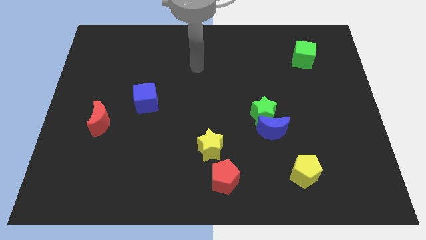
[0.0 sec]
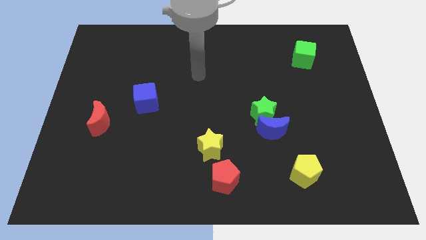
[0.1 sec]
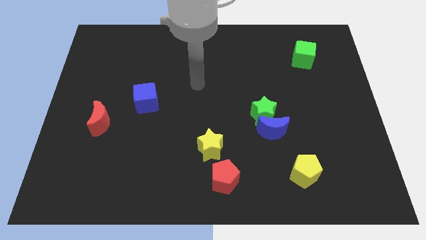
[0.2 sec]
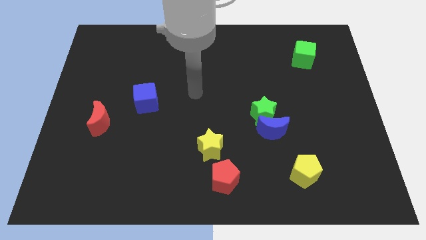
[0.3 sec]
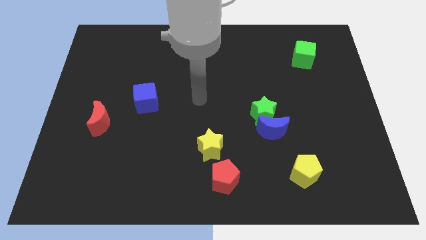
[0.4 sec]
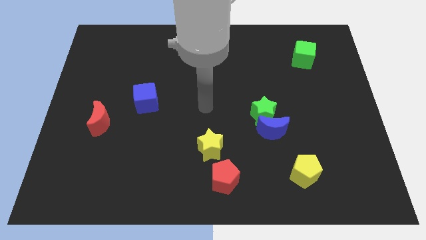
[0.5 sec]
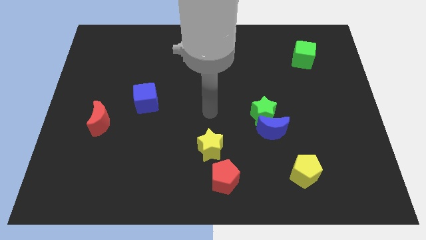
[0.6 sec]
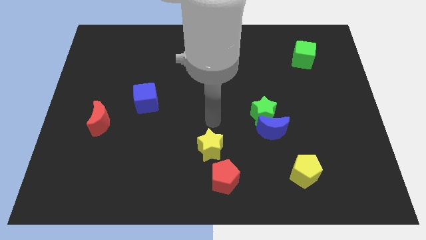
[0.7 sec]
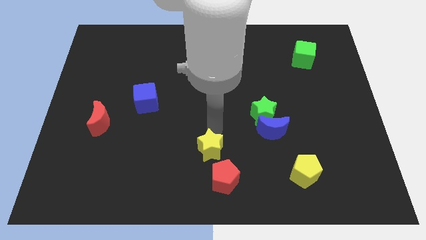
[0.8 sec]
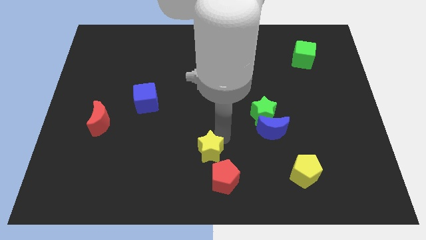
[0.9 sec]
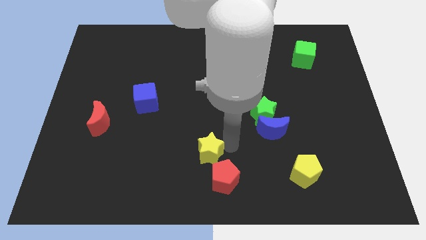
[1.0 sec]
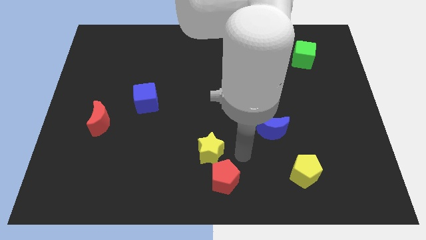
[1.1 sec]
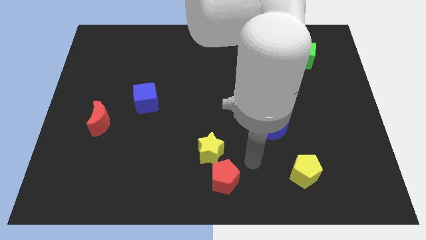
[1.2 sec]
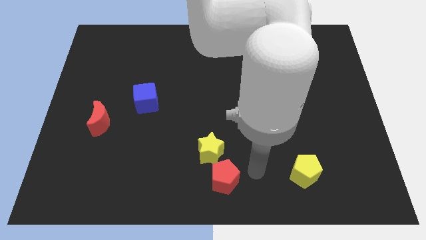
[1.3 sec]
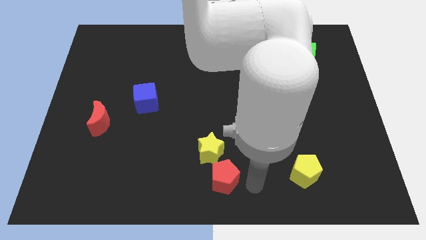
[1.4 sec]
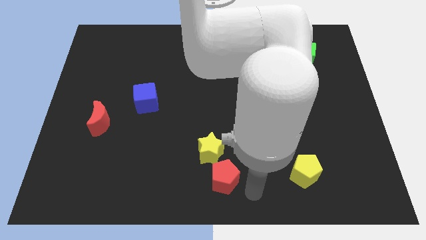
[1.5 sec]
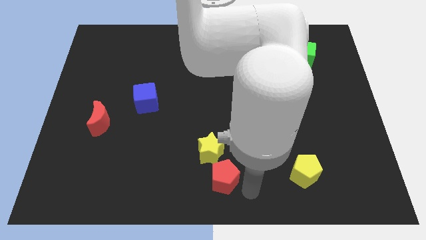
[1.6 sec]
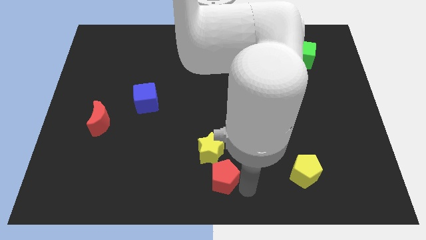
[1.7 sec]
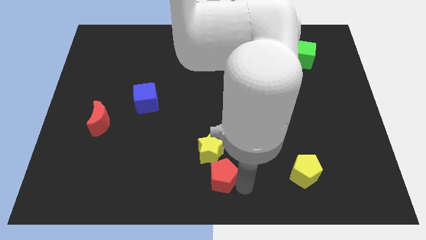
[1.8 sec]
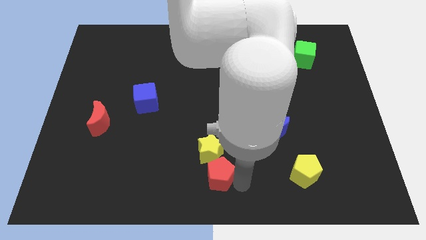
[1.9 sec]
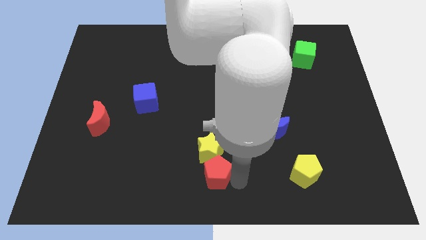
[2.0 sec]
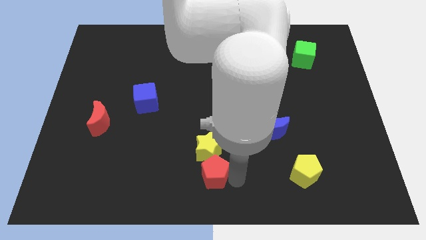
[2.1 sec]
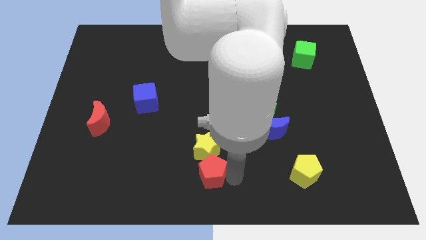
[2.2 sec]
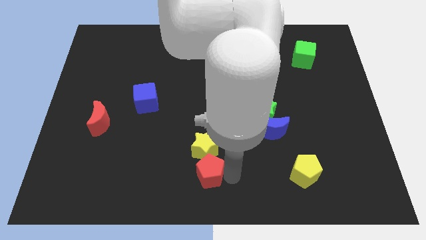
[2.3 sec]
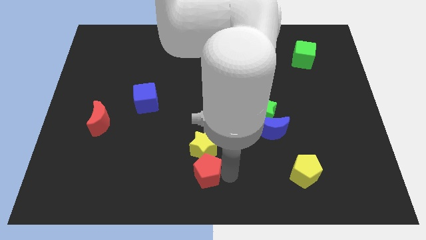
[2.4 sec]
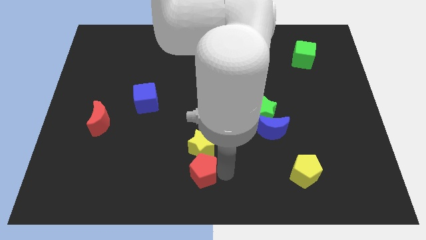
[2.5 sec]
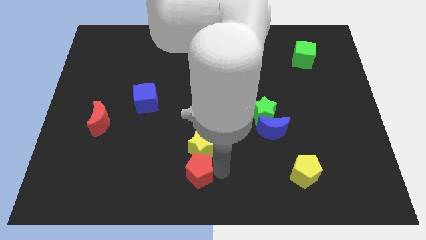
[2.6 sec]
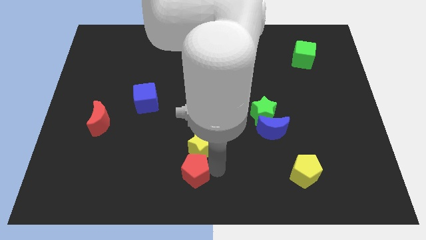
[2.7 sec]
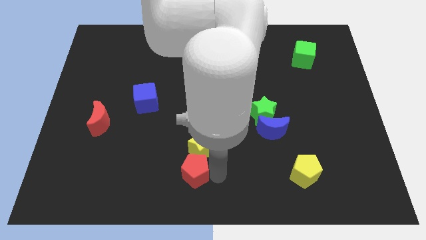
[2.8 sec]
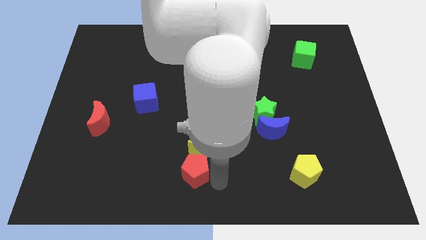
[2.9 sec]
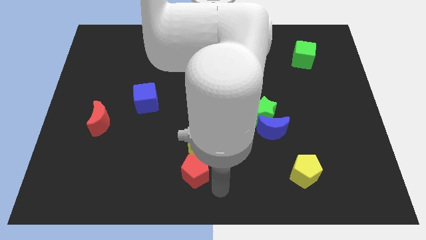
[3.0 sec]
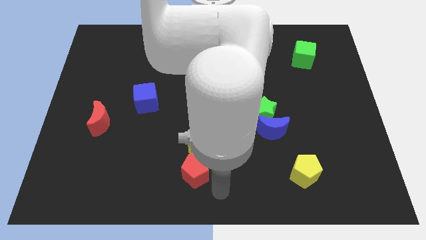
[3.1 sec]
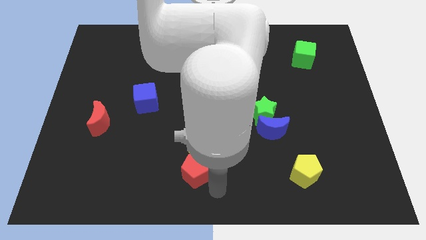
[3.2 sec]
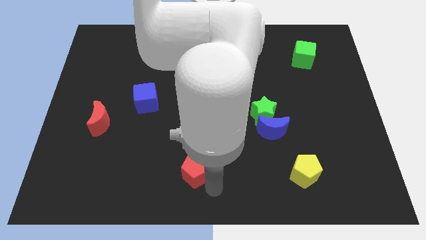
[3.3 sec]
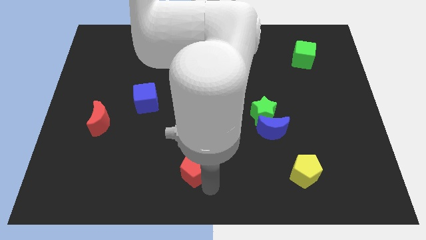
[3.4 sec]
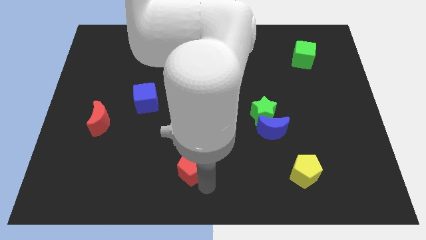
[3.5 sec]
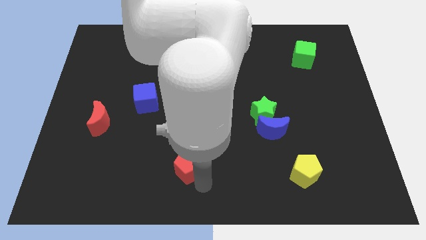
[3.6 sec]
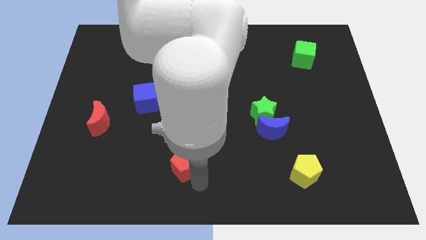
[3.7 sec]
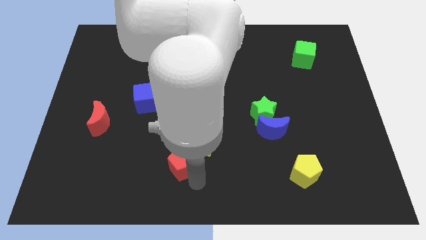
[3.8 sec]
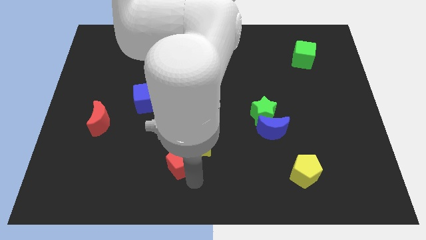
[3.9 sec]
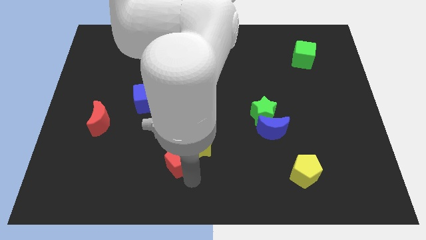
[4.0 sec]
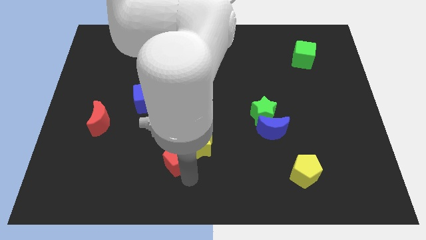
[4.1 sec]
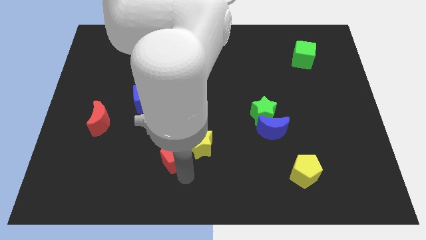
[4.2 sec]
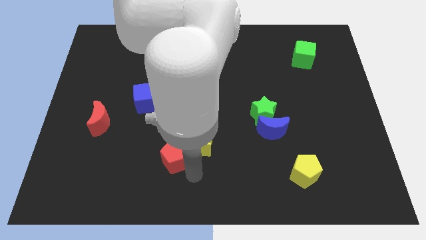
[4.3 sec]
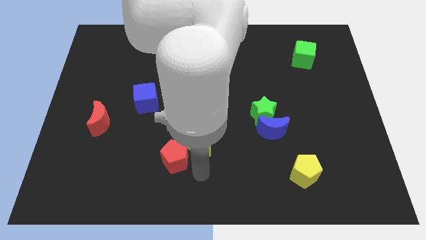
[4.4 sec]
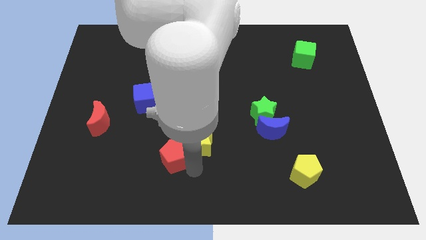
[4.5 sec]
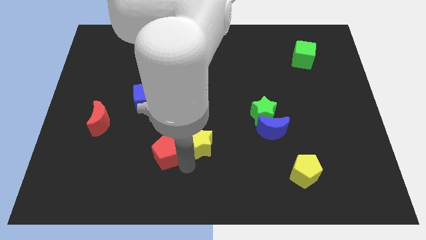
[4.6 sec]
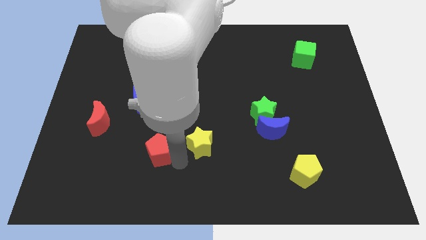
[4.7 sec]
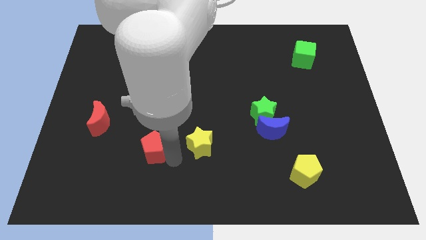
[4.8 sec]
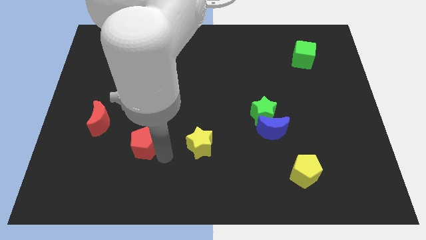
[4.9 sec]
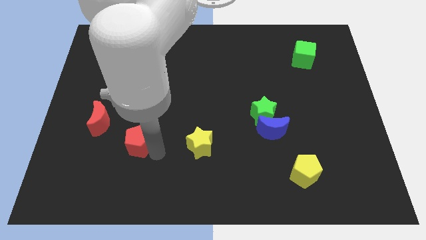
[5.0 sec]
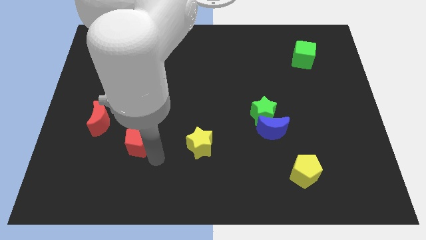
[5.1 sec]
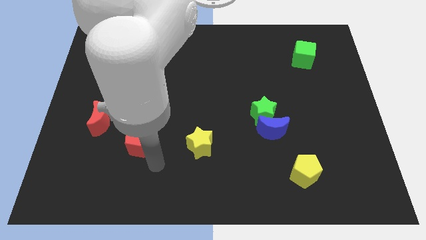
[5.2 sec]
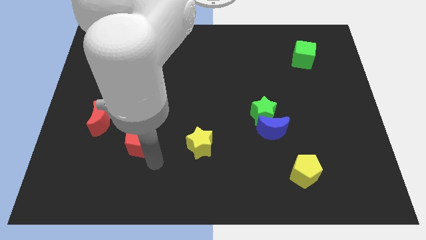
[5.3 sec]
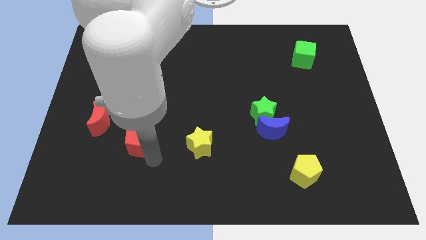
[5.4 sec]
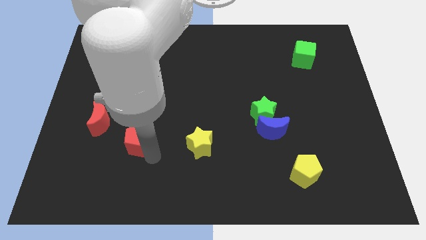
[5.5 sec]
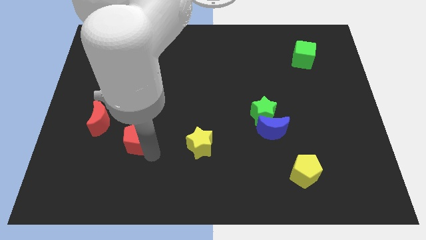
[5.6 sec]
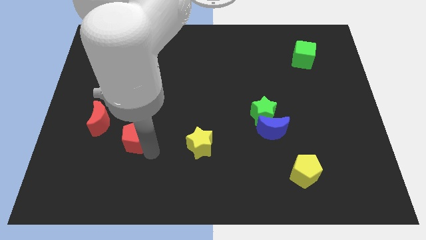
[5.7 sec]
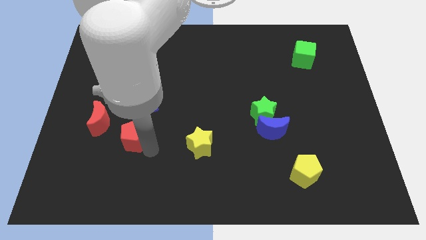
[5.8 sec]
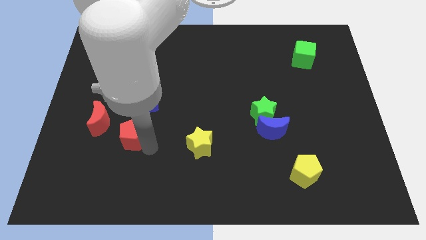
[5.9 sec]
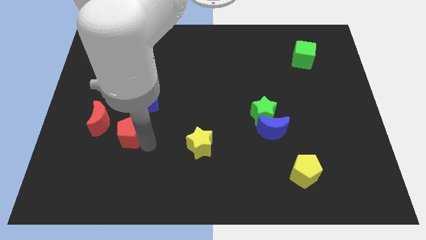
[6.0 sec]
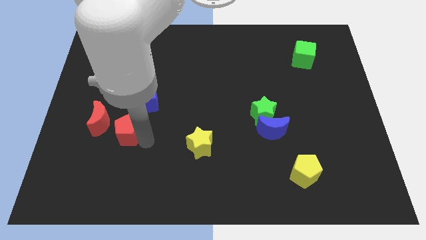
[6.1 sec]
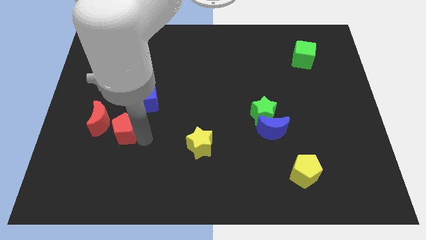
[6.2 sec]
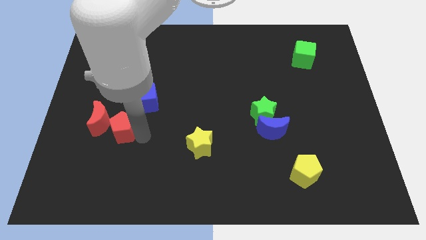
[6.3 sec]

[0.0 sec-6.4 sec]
slide the red pentagon close to the red moon

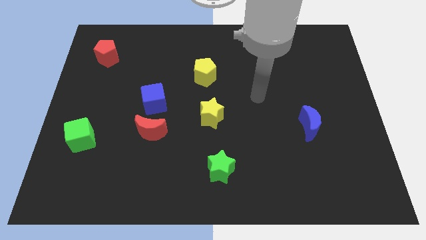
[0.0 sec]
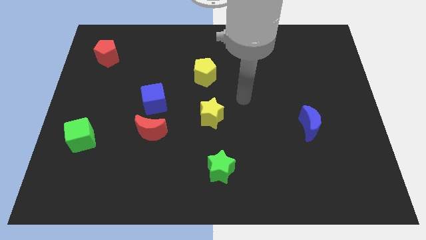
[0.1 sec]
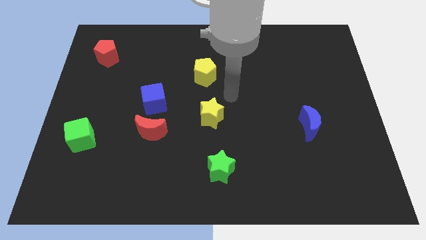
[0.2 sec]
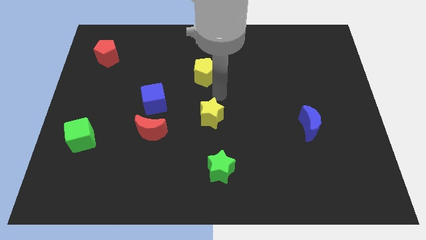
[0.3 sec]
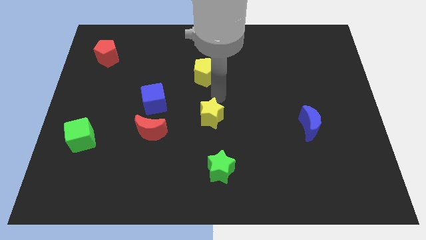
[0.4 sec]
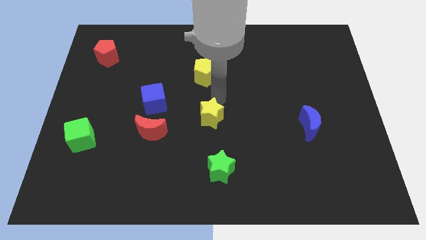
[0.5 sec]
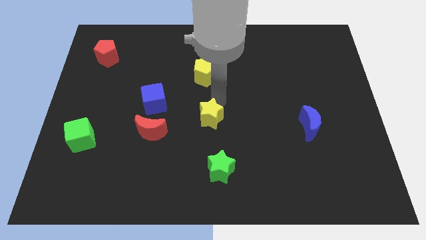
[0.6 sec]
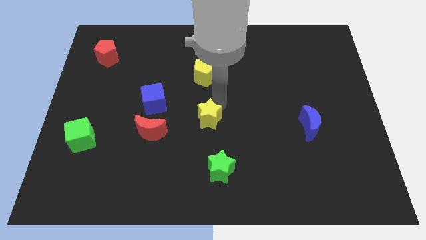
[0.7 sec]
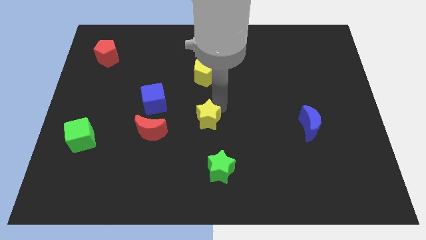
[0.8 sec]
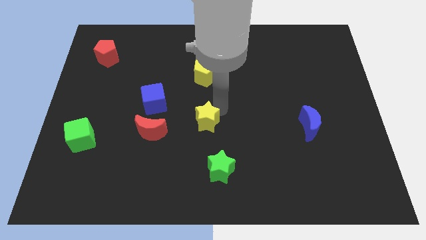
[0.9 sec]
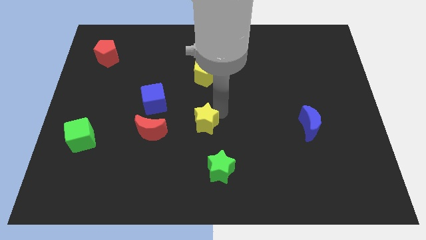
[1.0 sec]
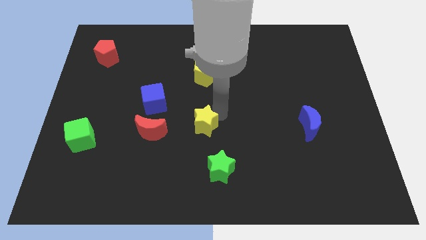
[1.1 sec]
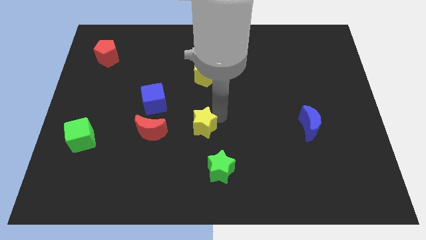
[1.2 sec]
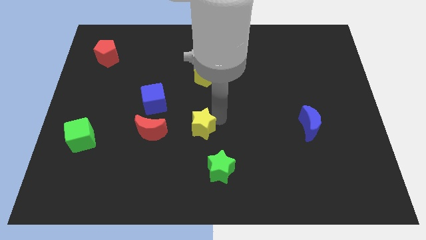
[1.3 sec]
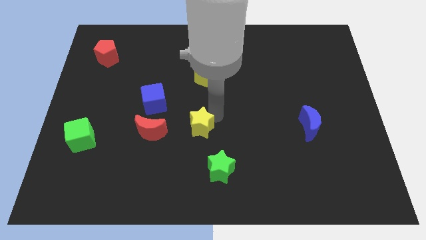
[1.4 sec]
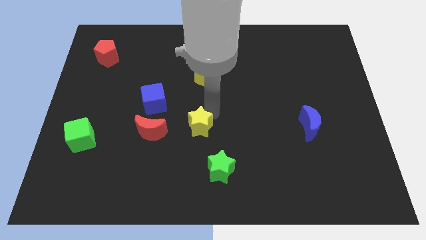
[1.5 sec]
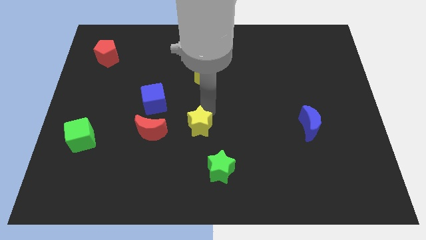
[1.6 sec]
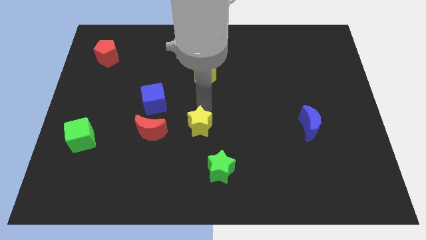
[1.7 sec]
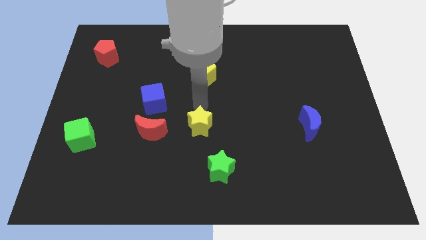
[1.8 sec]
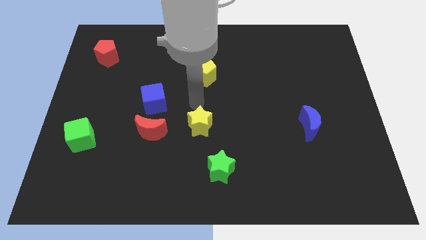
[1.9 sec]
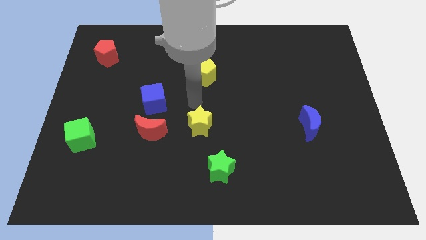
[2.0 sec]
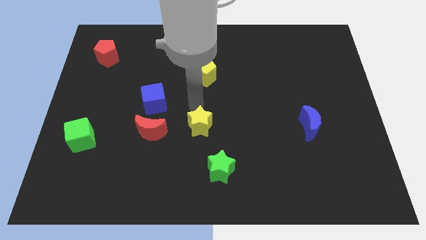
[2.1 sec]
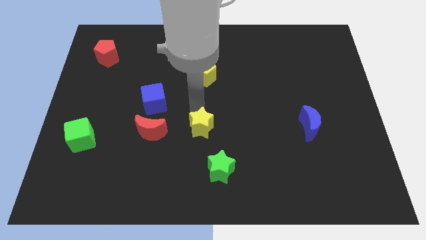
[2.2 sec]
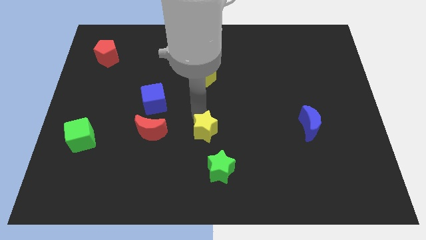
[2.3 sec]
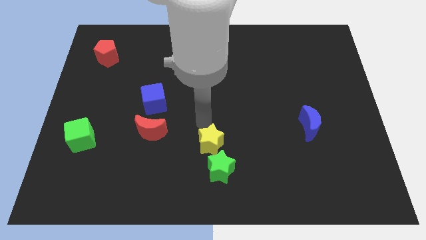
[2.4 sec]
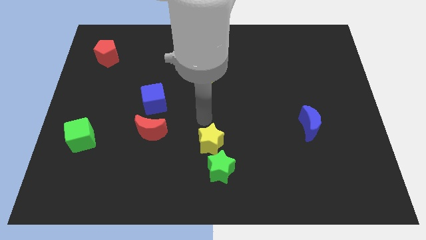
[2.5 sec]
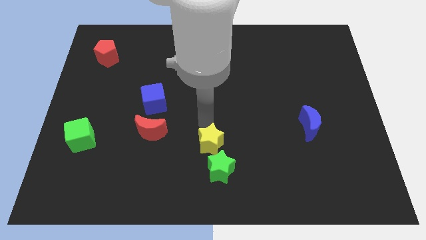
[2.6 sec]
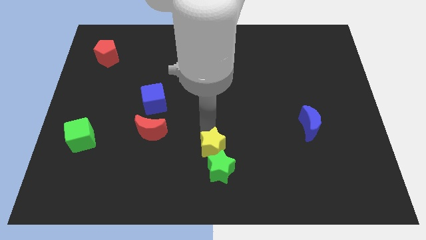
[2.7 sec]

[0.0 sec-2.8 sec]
slide the yellow star next to the green star
